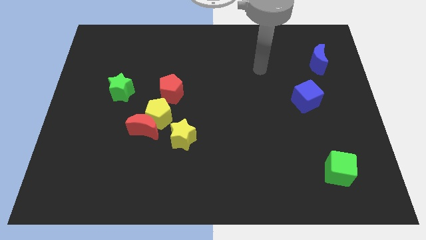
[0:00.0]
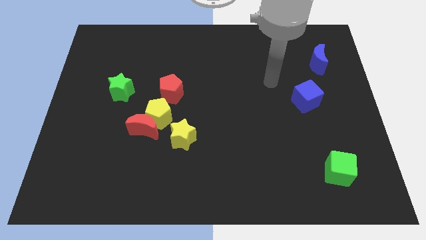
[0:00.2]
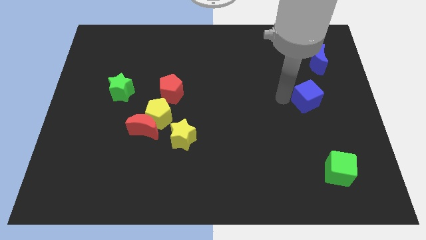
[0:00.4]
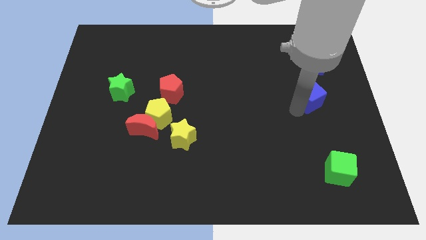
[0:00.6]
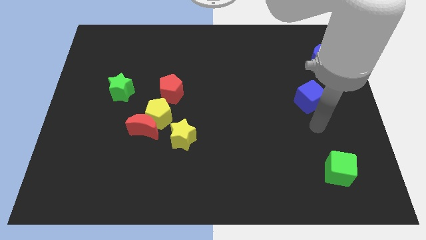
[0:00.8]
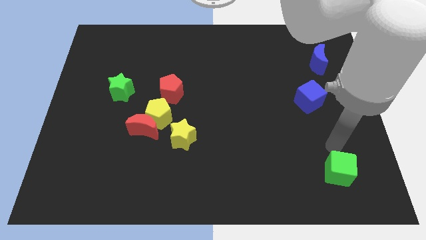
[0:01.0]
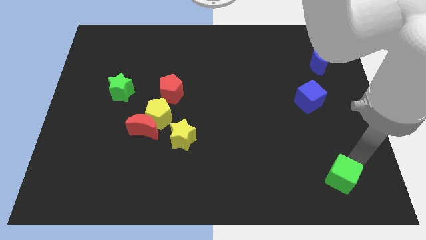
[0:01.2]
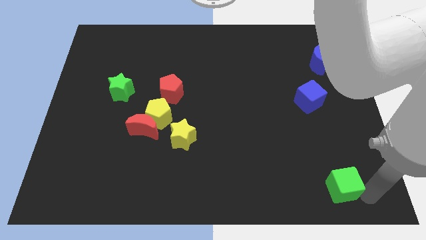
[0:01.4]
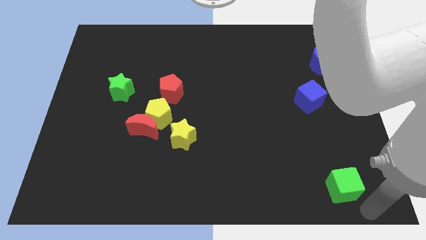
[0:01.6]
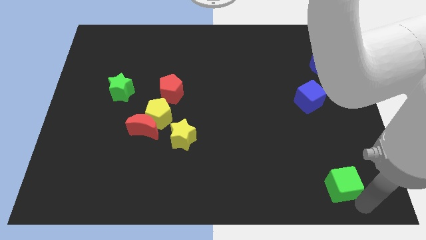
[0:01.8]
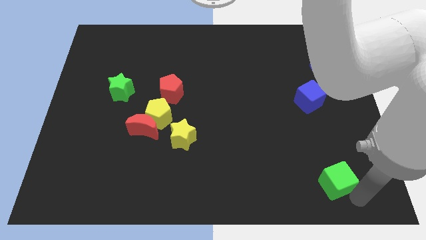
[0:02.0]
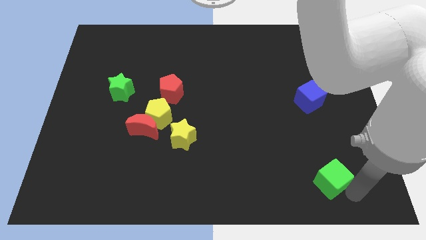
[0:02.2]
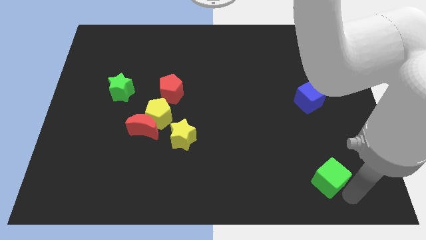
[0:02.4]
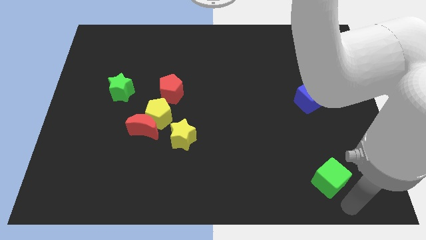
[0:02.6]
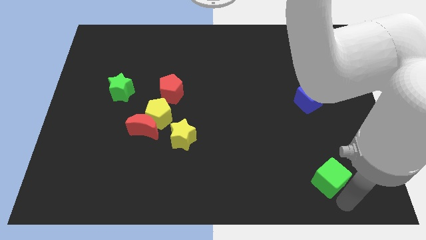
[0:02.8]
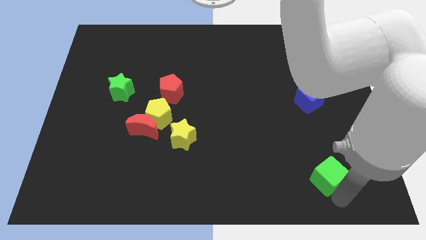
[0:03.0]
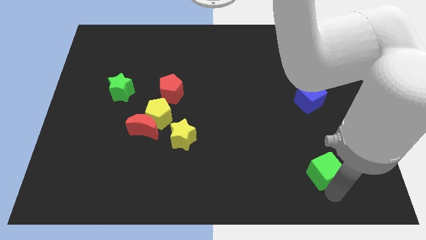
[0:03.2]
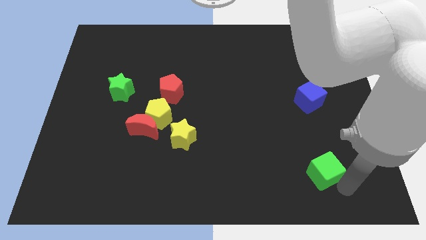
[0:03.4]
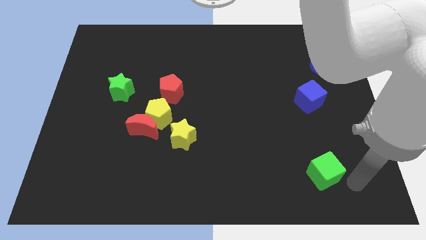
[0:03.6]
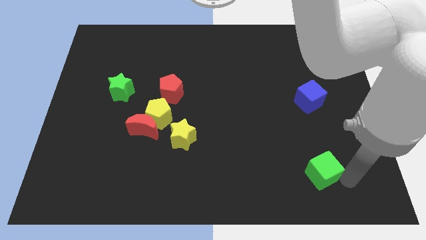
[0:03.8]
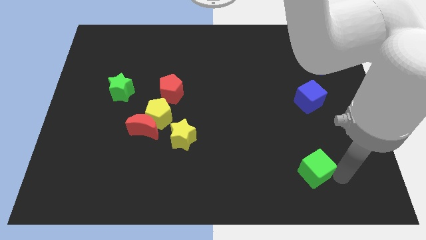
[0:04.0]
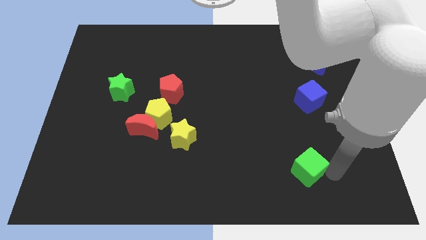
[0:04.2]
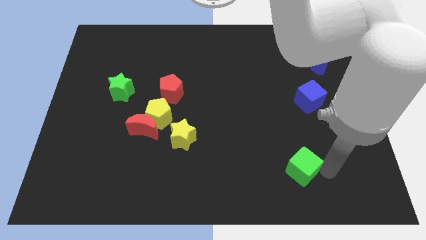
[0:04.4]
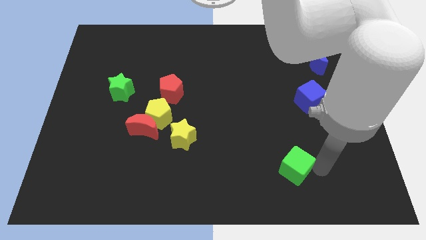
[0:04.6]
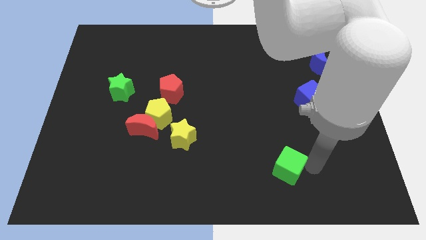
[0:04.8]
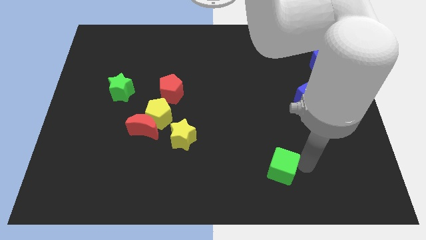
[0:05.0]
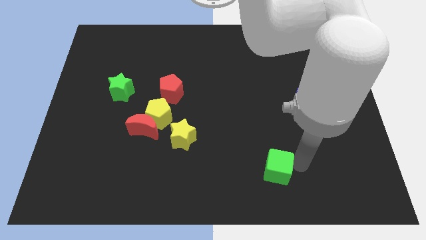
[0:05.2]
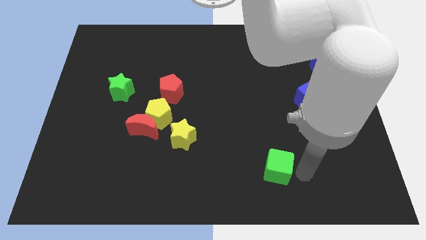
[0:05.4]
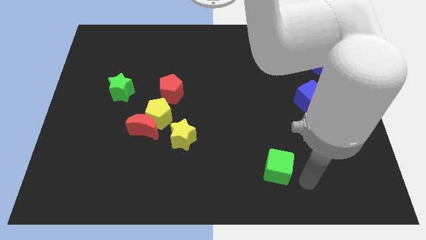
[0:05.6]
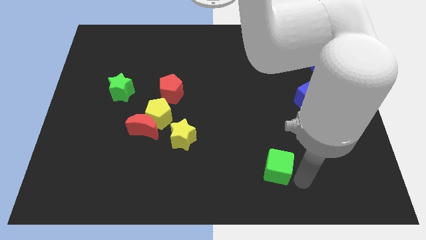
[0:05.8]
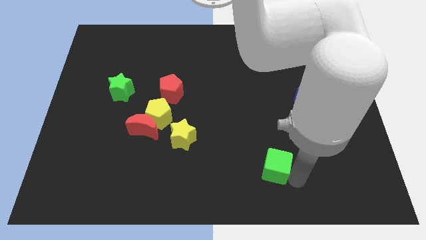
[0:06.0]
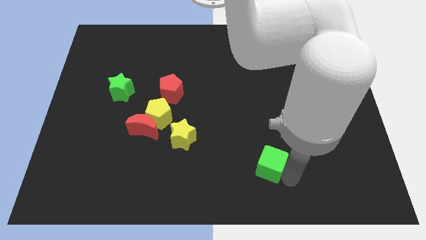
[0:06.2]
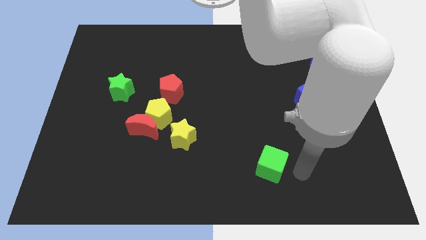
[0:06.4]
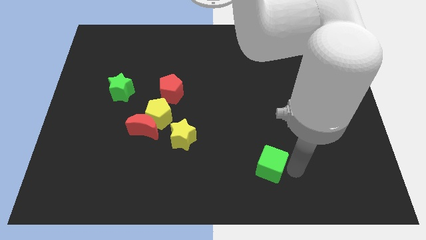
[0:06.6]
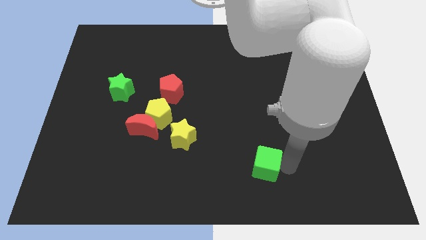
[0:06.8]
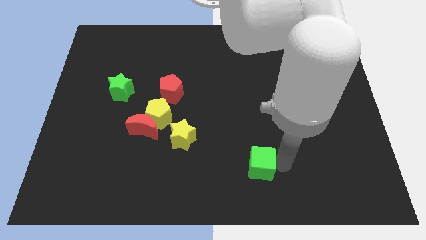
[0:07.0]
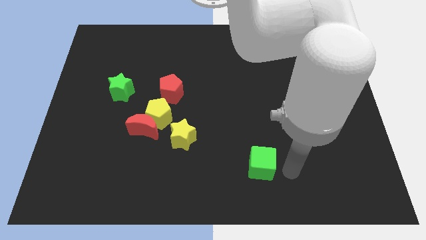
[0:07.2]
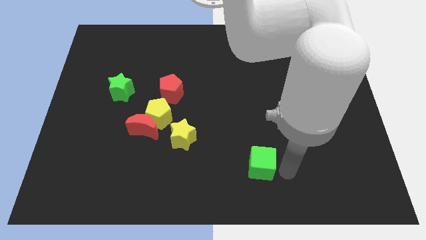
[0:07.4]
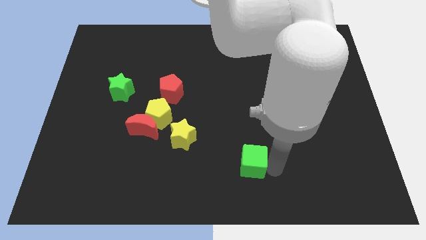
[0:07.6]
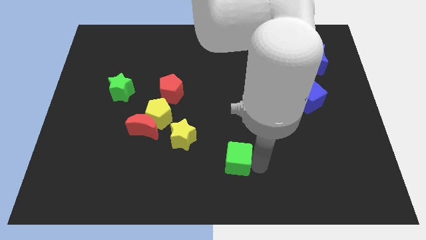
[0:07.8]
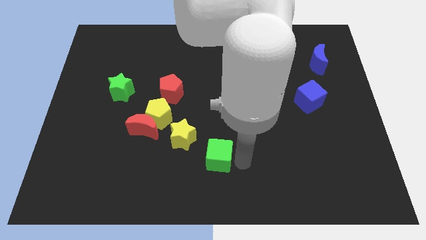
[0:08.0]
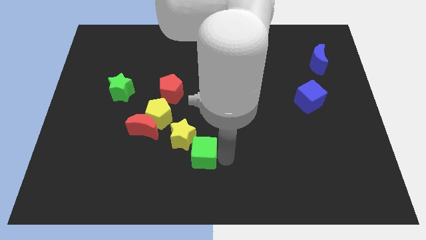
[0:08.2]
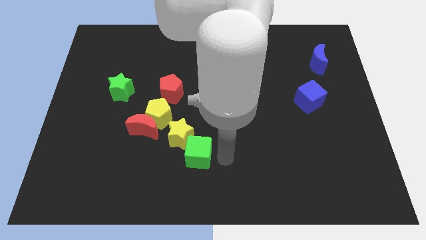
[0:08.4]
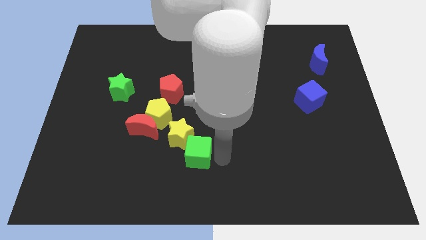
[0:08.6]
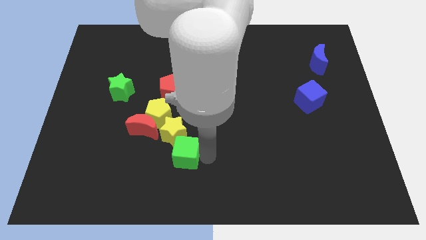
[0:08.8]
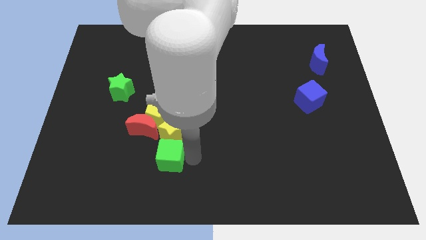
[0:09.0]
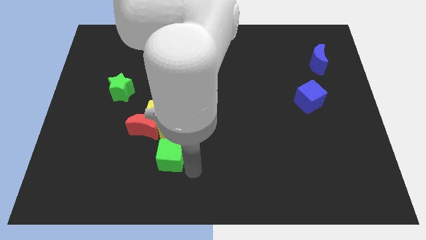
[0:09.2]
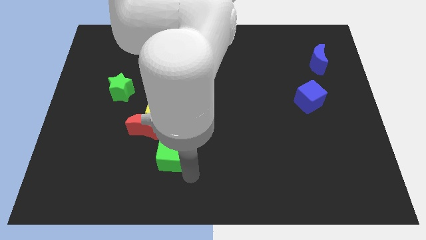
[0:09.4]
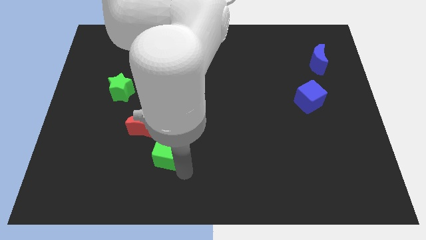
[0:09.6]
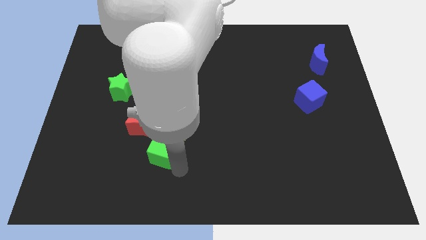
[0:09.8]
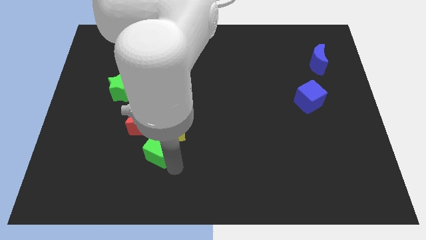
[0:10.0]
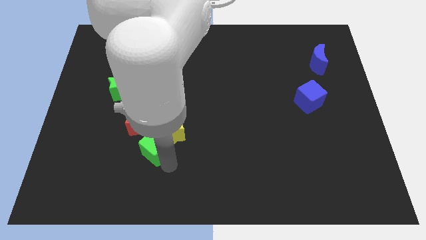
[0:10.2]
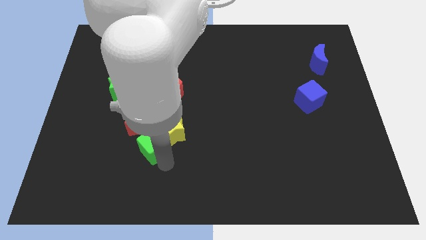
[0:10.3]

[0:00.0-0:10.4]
slide the green cube to the red moon

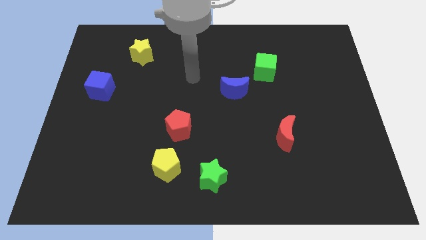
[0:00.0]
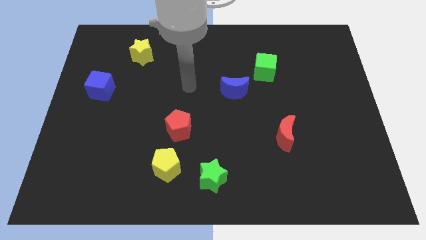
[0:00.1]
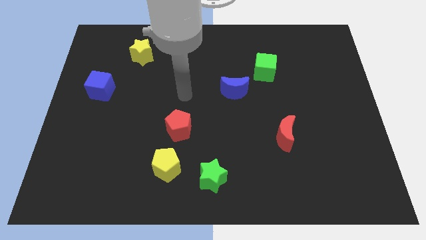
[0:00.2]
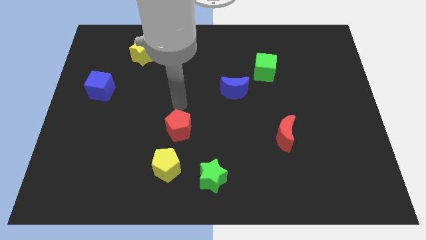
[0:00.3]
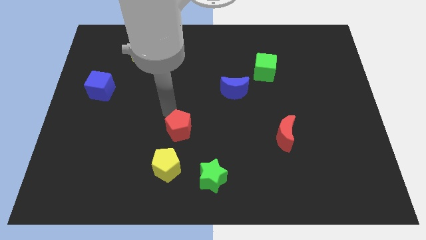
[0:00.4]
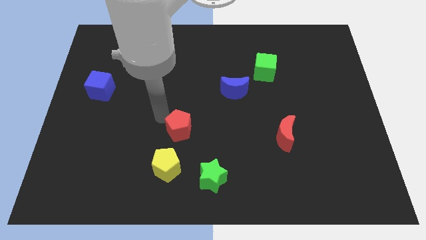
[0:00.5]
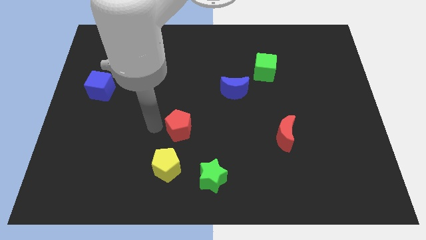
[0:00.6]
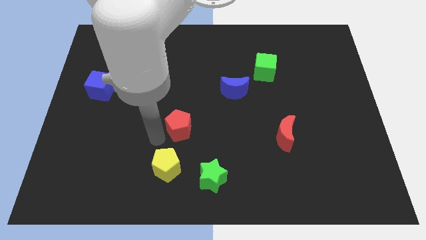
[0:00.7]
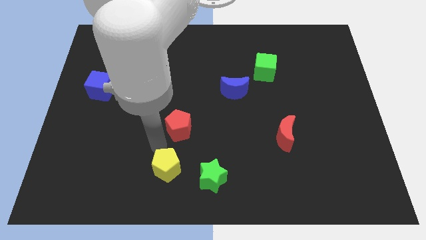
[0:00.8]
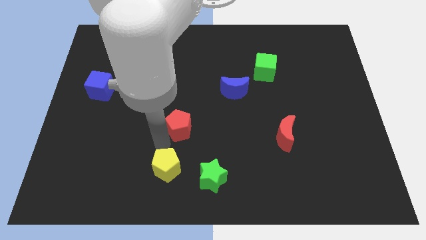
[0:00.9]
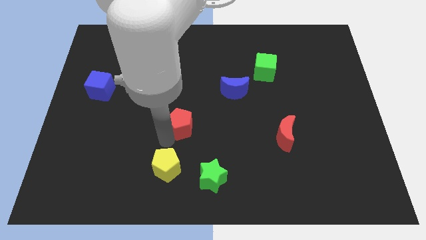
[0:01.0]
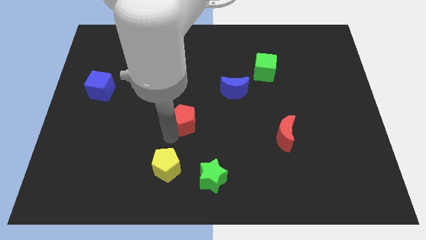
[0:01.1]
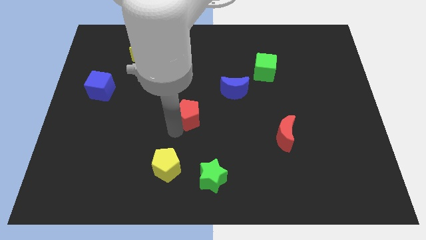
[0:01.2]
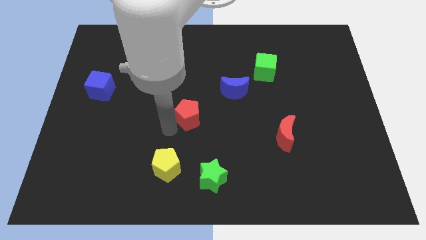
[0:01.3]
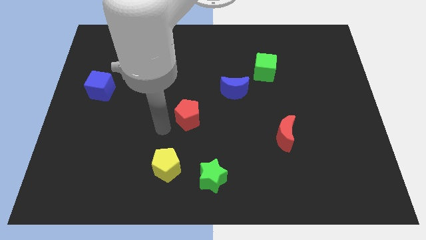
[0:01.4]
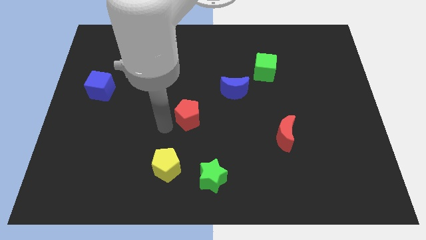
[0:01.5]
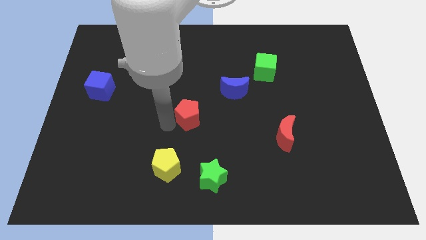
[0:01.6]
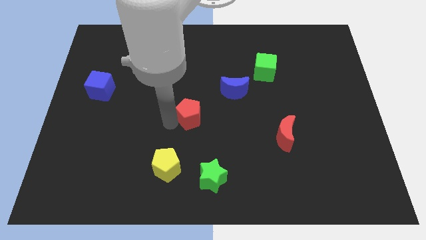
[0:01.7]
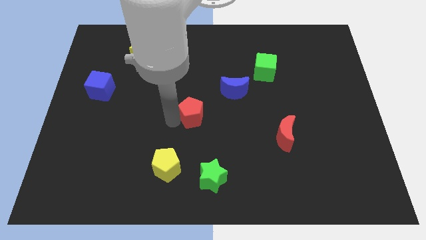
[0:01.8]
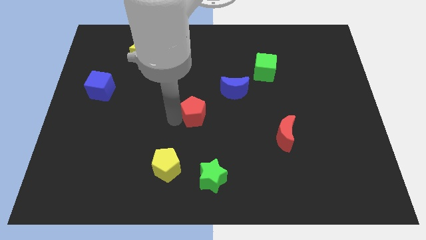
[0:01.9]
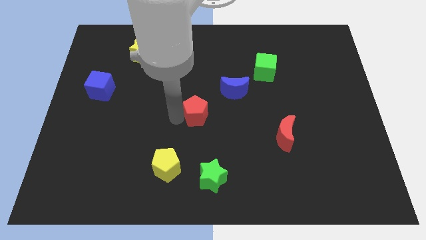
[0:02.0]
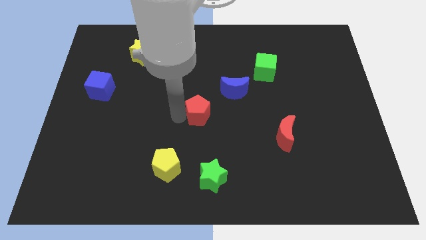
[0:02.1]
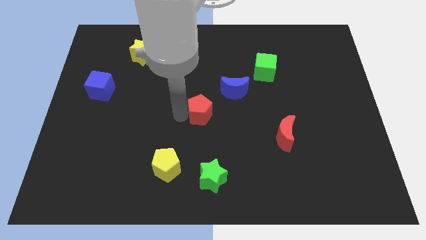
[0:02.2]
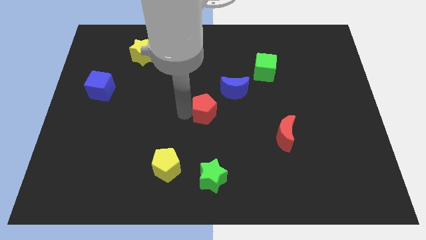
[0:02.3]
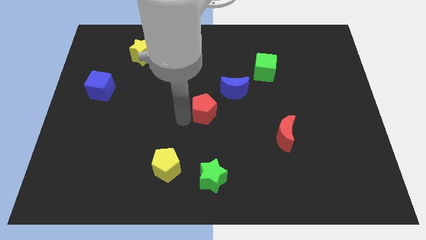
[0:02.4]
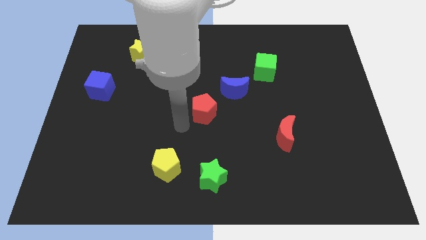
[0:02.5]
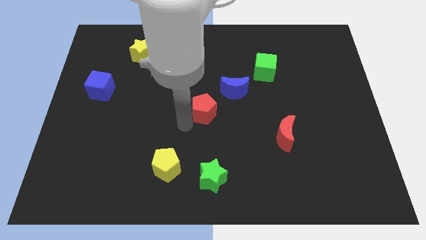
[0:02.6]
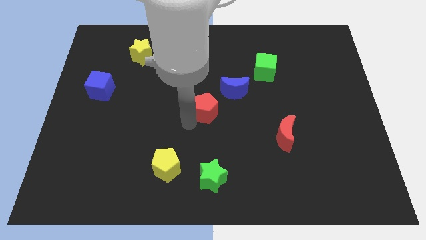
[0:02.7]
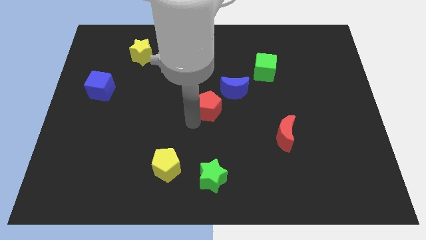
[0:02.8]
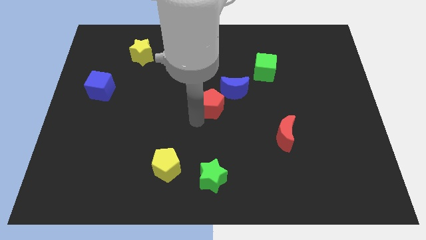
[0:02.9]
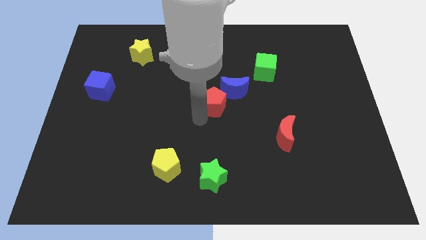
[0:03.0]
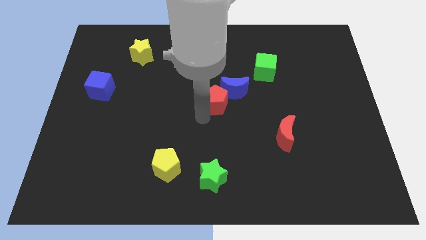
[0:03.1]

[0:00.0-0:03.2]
put the red pentagon to the blue moon
